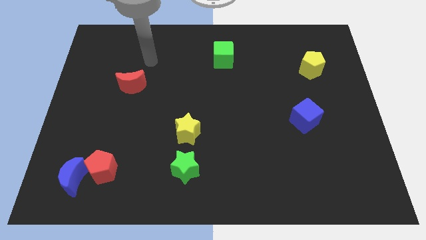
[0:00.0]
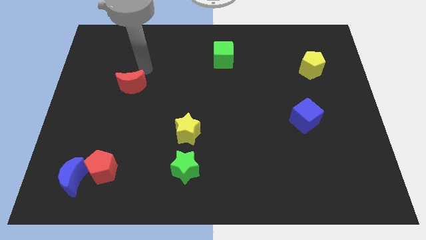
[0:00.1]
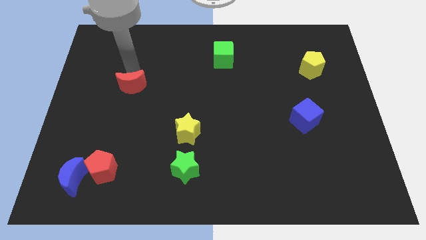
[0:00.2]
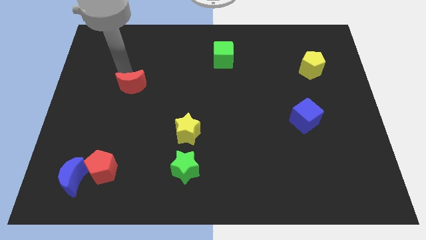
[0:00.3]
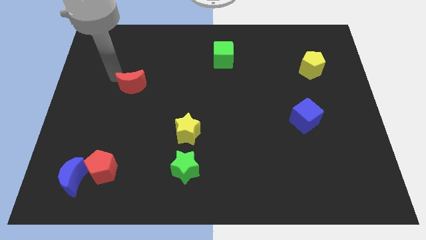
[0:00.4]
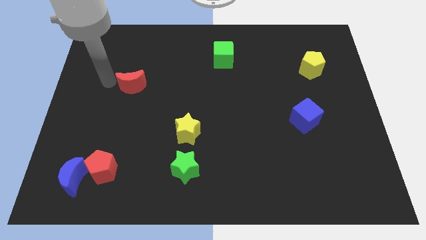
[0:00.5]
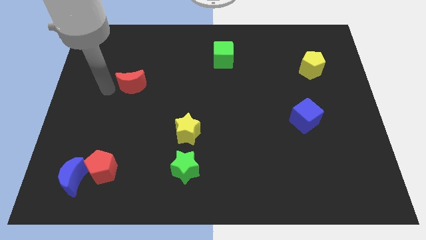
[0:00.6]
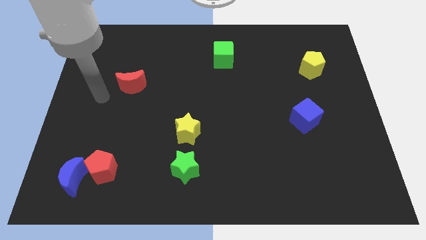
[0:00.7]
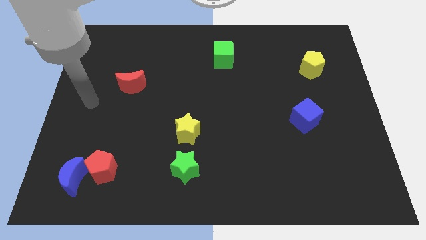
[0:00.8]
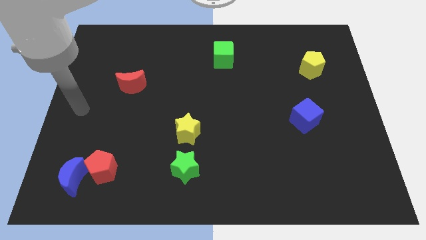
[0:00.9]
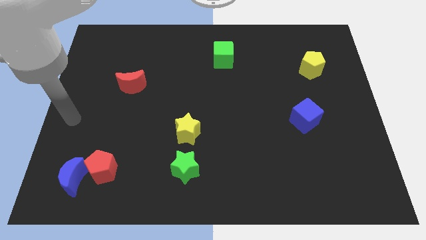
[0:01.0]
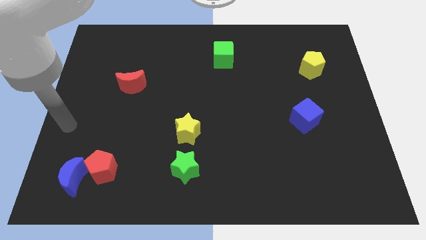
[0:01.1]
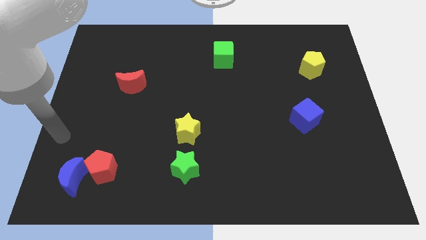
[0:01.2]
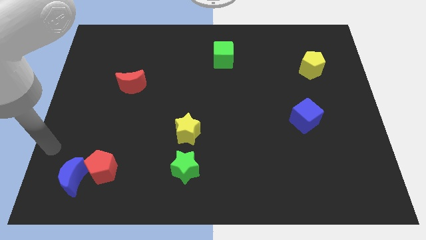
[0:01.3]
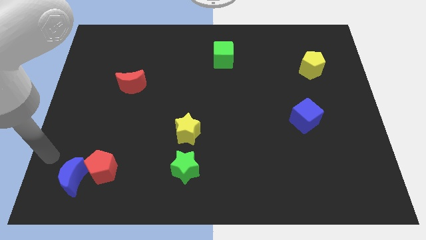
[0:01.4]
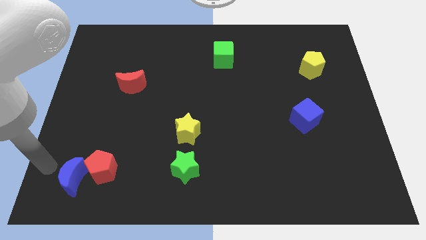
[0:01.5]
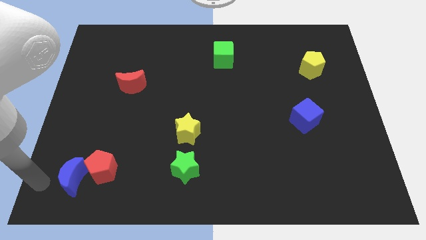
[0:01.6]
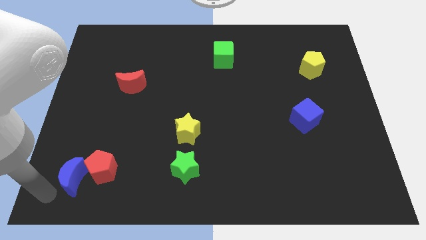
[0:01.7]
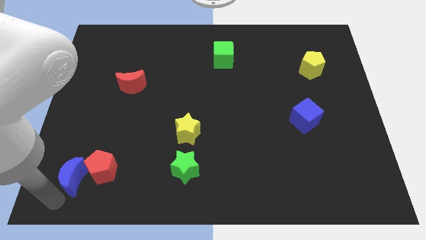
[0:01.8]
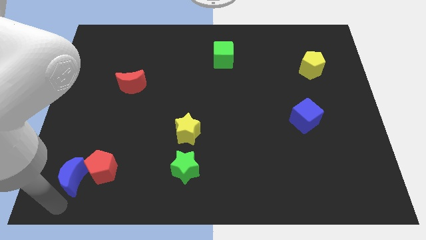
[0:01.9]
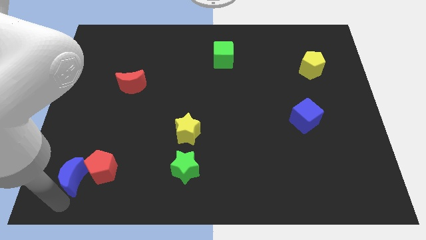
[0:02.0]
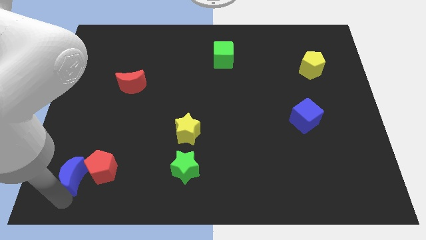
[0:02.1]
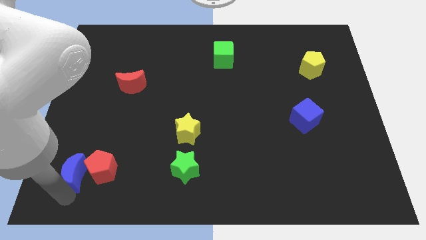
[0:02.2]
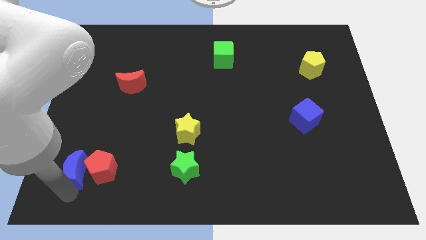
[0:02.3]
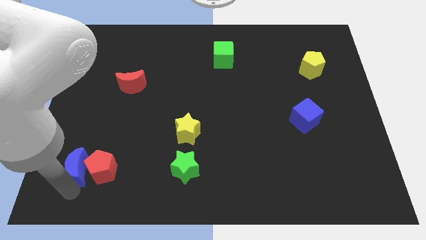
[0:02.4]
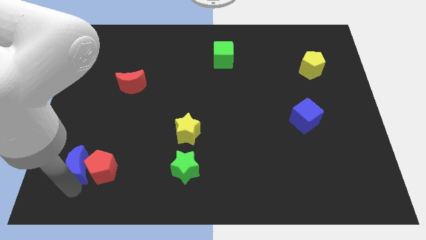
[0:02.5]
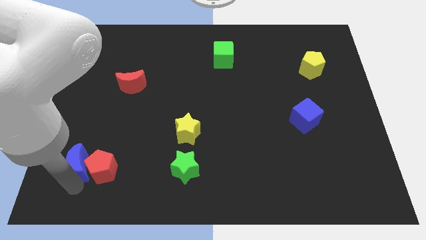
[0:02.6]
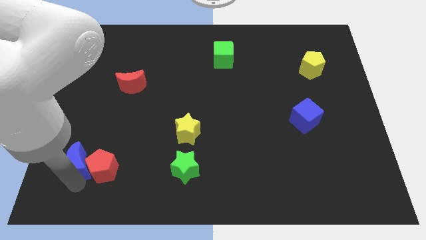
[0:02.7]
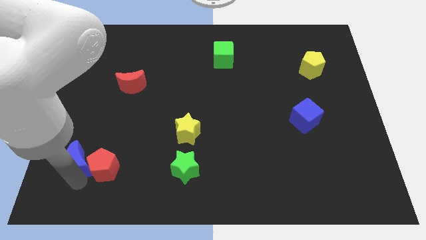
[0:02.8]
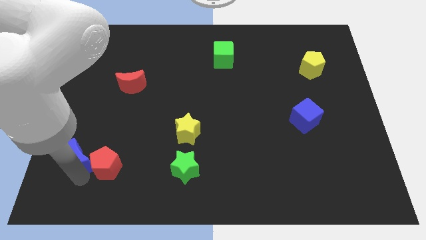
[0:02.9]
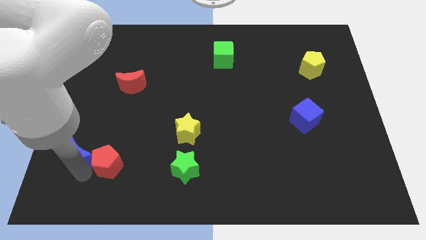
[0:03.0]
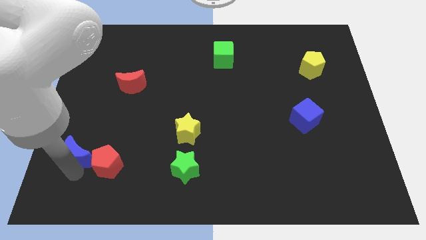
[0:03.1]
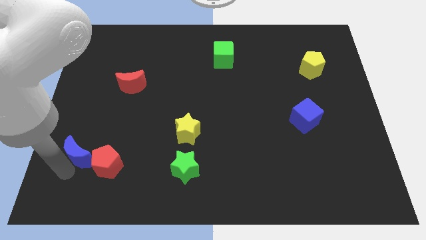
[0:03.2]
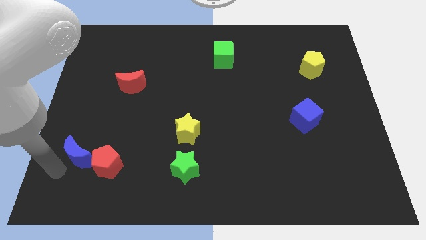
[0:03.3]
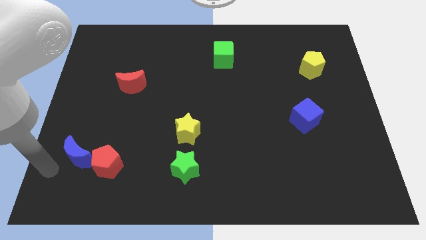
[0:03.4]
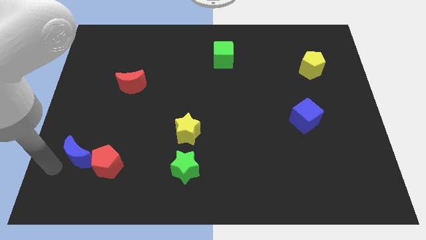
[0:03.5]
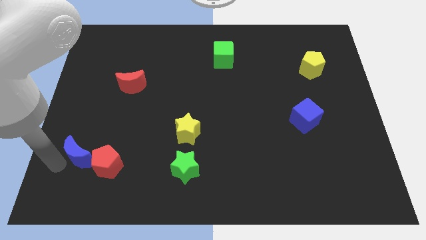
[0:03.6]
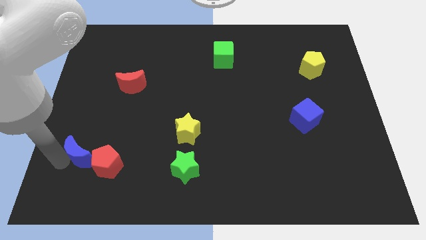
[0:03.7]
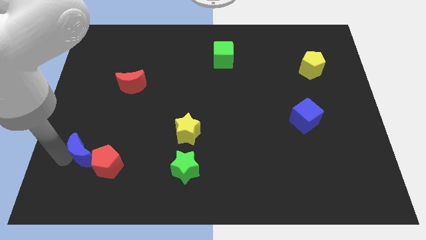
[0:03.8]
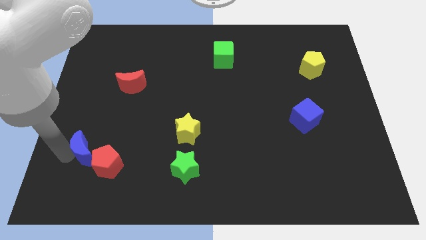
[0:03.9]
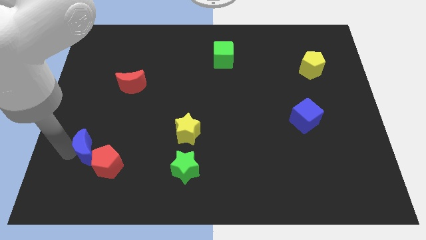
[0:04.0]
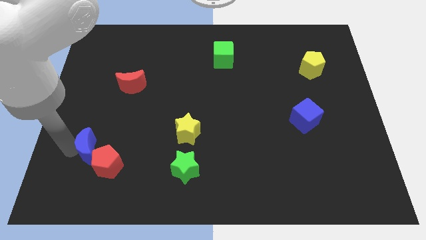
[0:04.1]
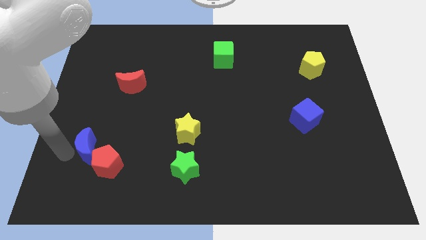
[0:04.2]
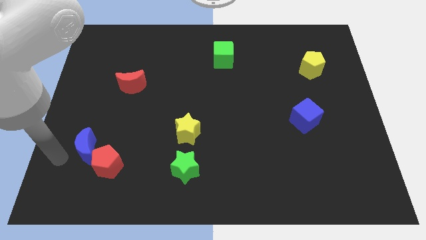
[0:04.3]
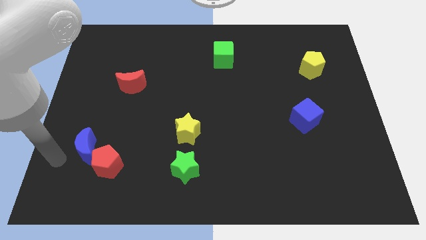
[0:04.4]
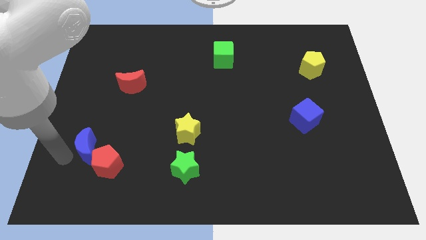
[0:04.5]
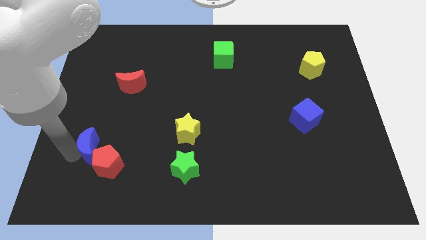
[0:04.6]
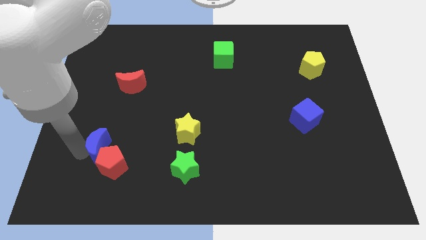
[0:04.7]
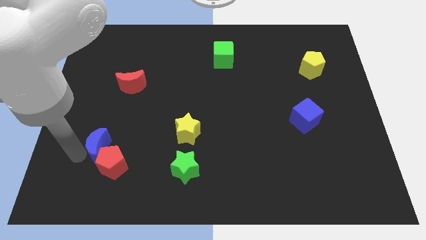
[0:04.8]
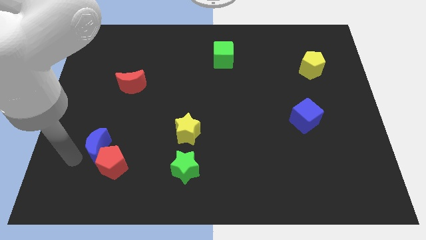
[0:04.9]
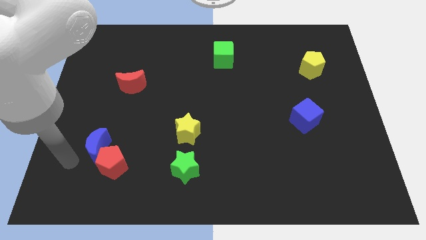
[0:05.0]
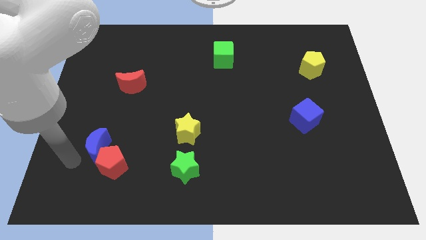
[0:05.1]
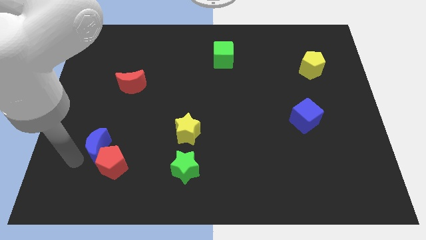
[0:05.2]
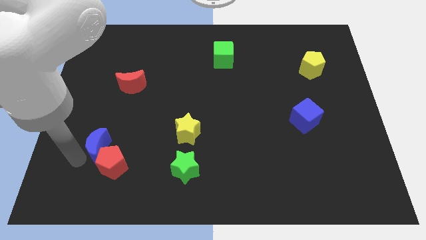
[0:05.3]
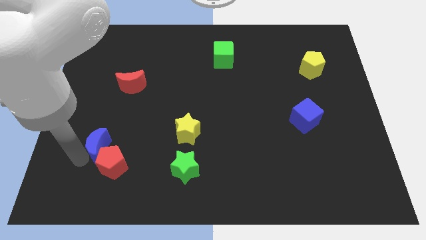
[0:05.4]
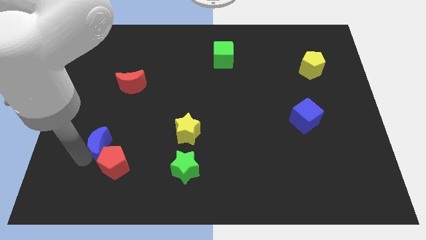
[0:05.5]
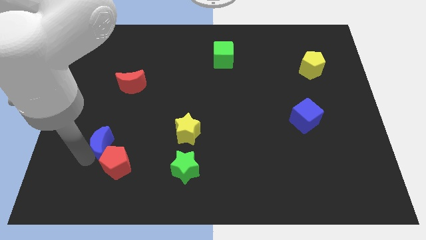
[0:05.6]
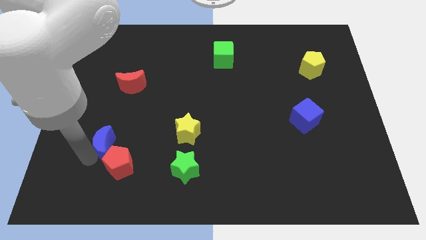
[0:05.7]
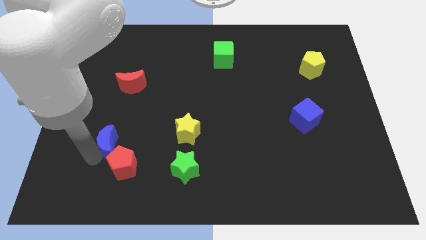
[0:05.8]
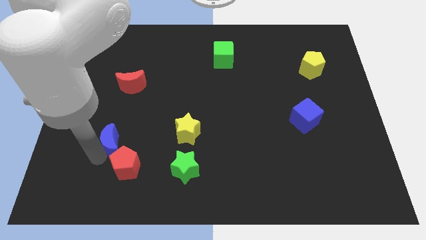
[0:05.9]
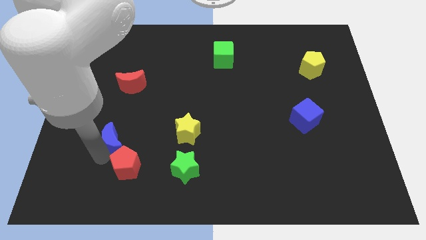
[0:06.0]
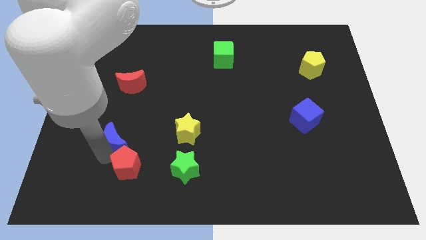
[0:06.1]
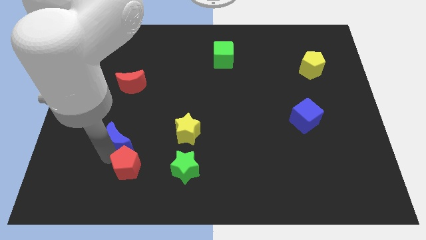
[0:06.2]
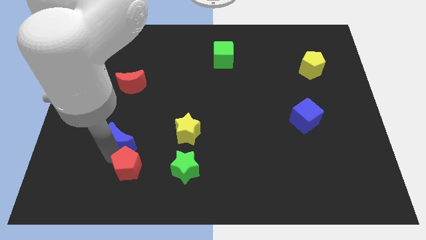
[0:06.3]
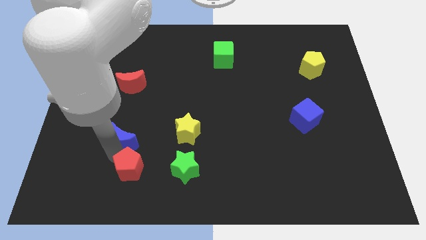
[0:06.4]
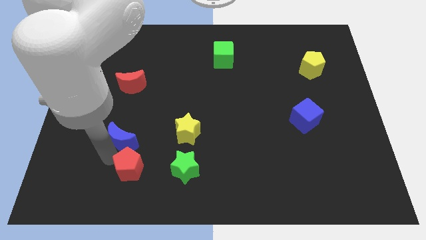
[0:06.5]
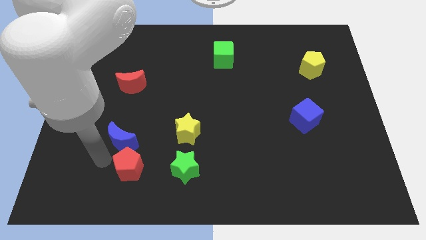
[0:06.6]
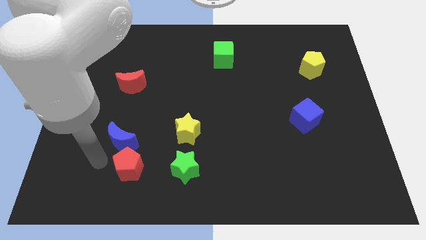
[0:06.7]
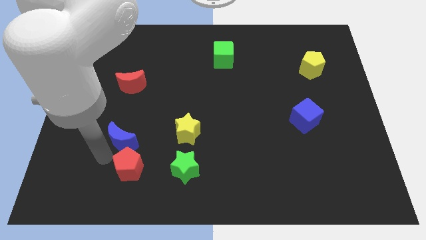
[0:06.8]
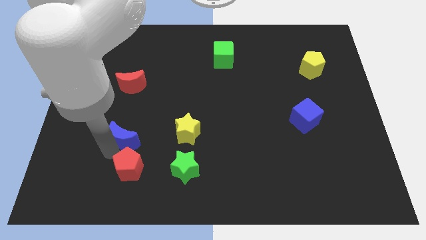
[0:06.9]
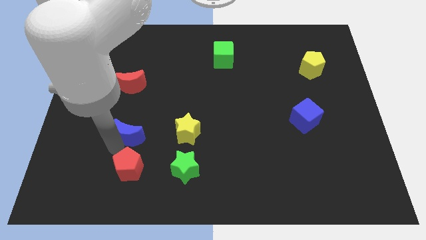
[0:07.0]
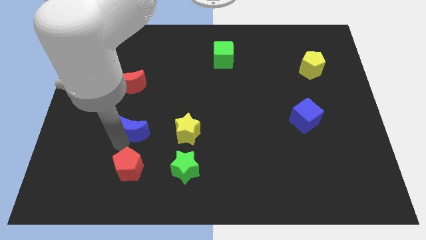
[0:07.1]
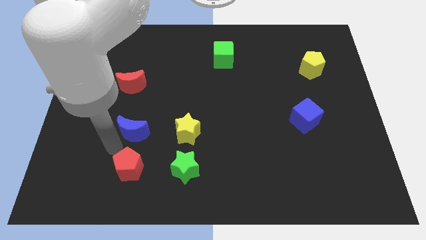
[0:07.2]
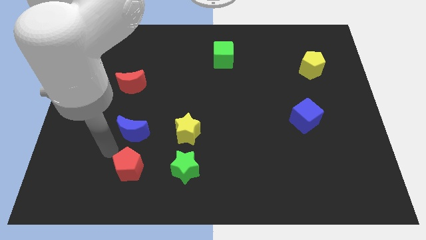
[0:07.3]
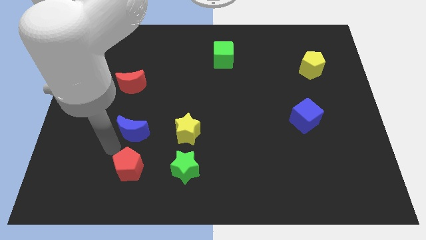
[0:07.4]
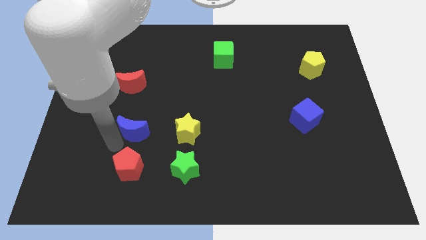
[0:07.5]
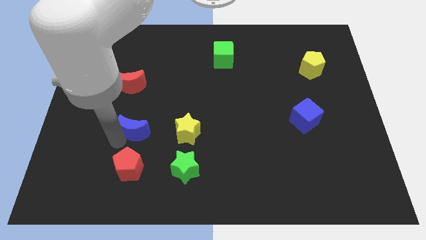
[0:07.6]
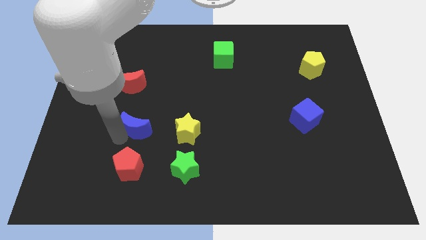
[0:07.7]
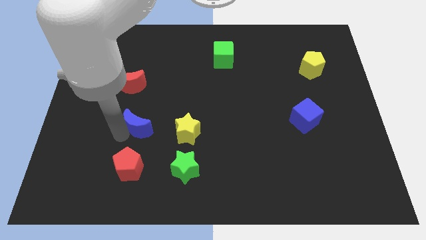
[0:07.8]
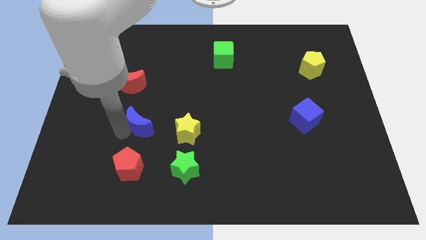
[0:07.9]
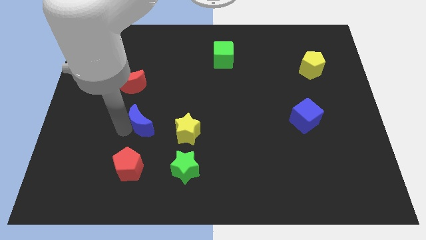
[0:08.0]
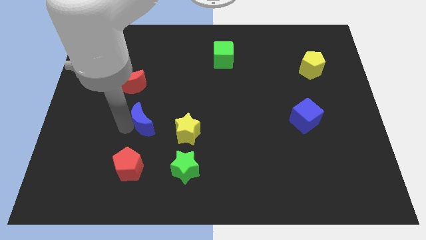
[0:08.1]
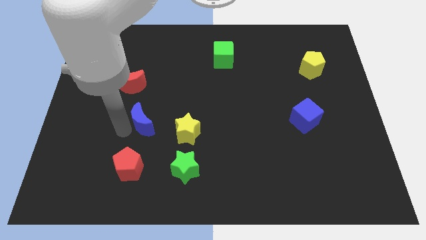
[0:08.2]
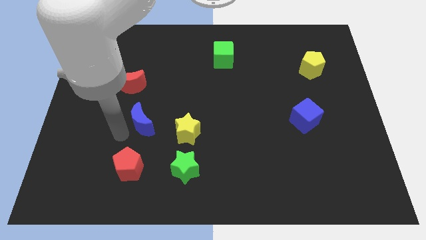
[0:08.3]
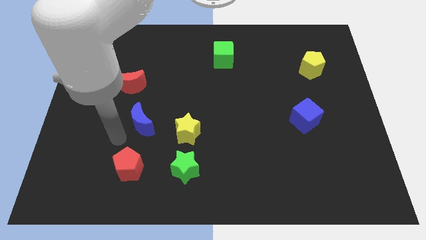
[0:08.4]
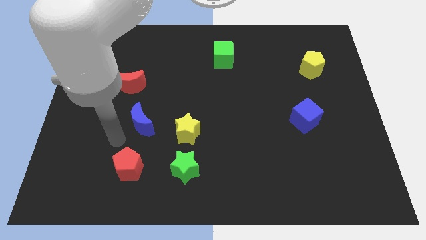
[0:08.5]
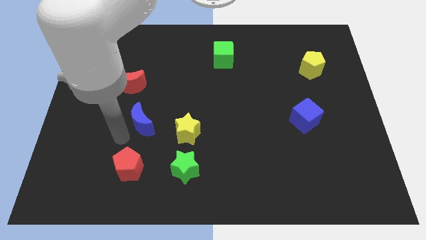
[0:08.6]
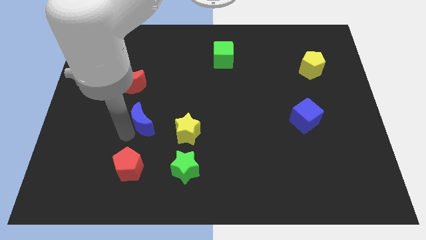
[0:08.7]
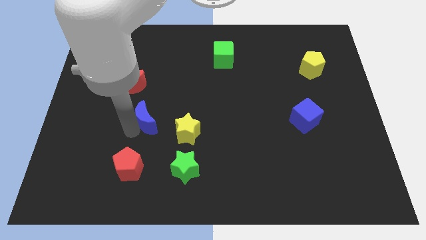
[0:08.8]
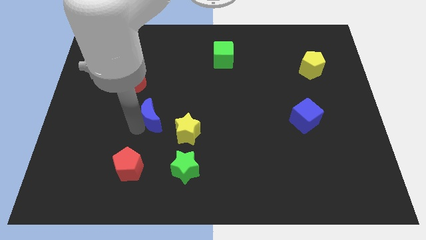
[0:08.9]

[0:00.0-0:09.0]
slide the blue moon up and then right
